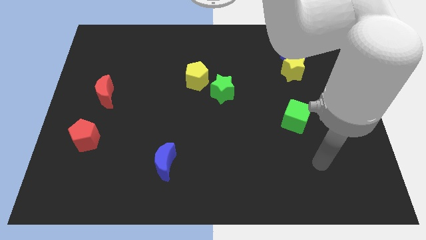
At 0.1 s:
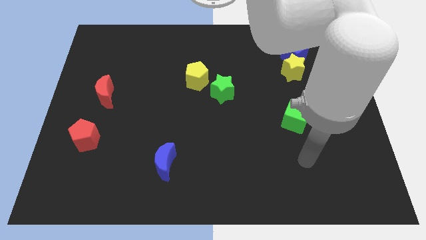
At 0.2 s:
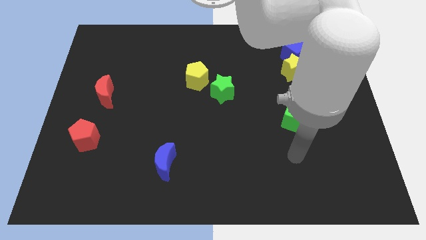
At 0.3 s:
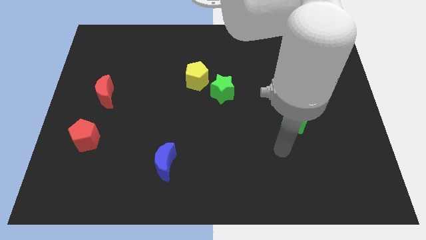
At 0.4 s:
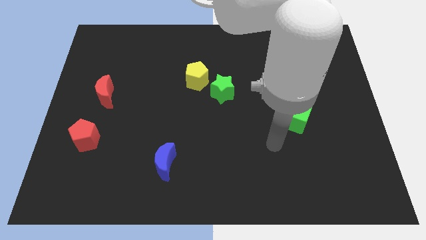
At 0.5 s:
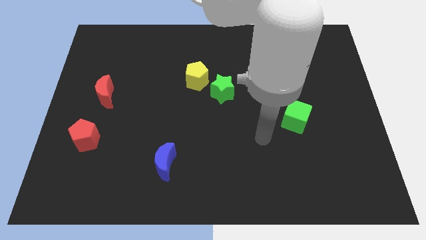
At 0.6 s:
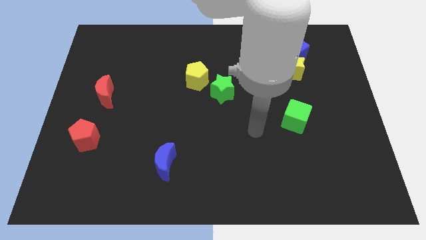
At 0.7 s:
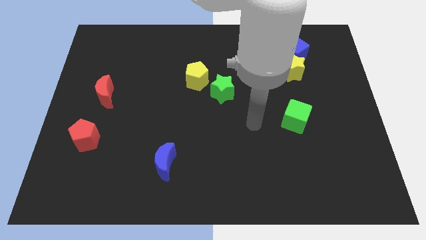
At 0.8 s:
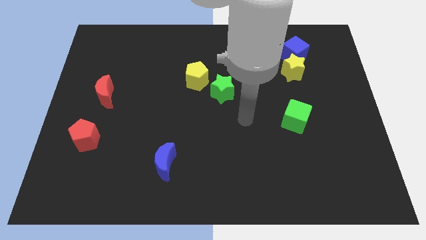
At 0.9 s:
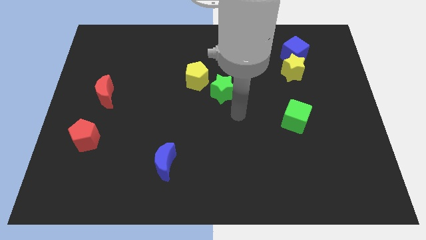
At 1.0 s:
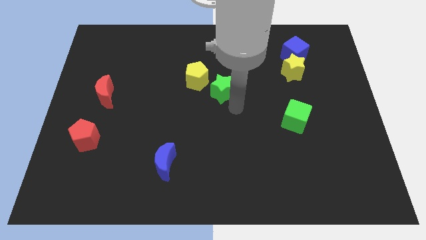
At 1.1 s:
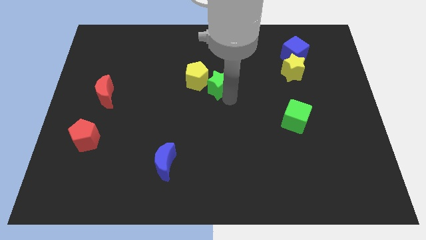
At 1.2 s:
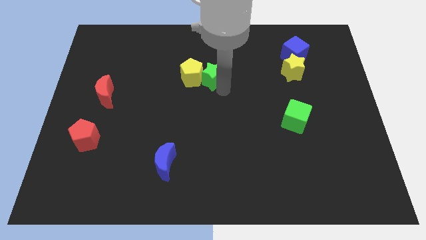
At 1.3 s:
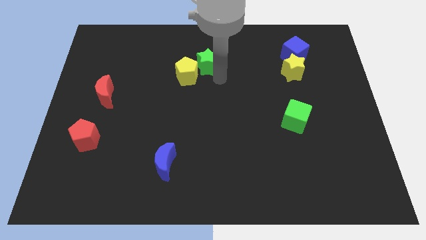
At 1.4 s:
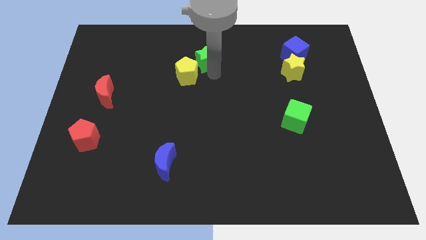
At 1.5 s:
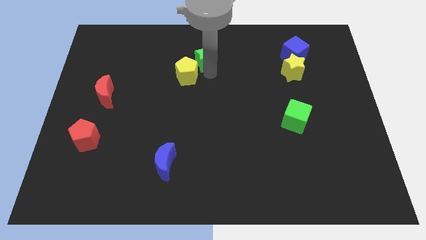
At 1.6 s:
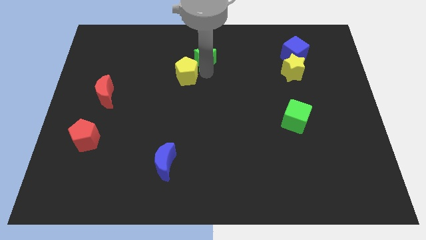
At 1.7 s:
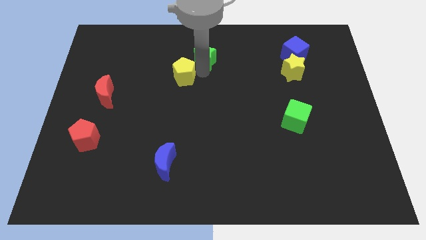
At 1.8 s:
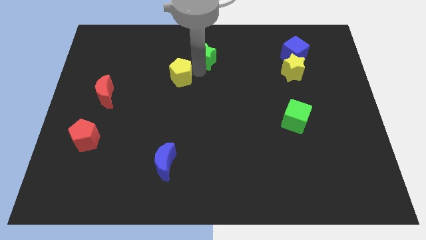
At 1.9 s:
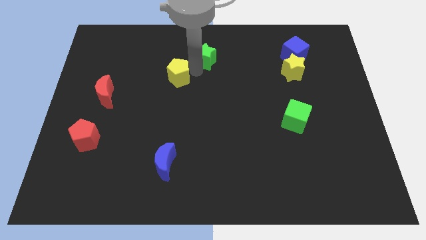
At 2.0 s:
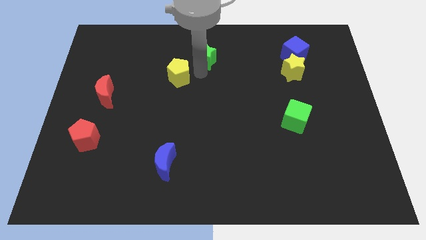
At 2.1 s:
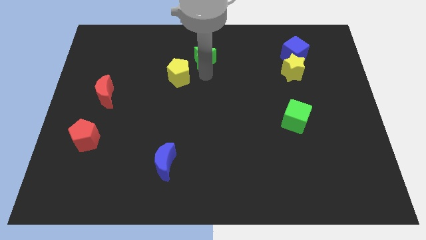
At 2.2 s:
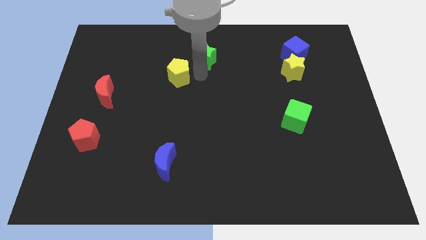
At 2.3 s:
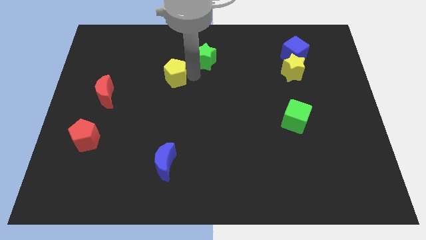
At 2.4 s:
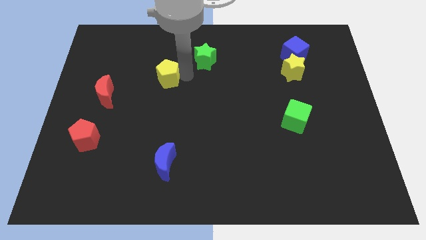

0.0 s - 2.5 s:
push the yellow pentagon to the left slightly

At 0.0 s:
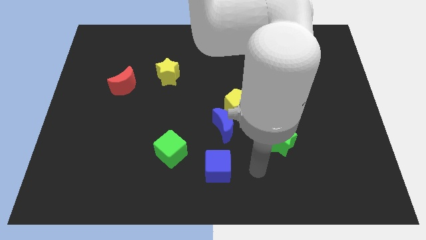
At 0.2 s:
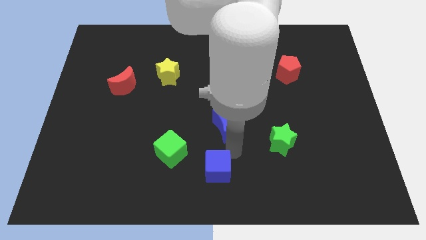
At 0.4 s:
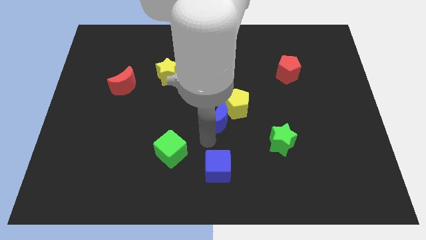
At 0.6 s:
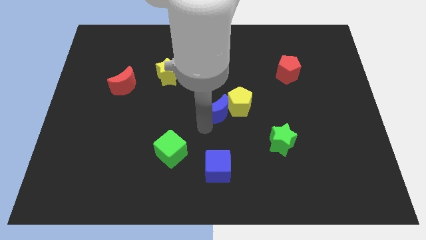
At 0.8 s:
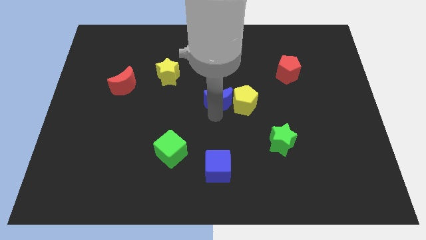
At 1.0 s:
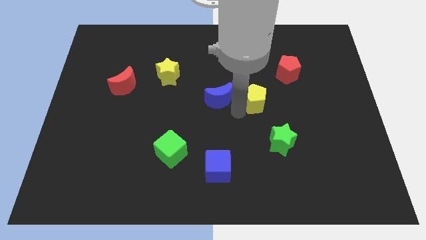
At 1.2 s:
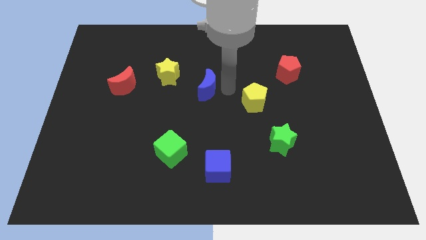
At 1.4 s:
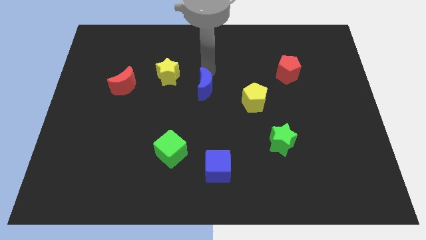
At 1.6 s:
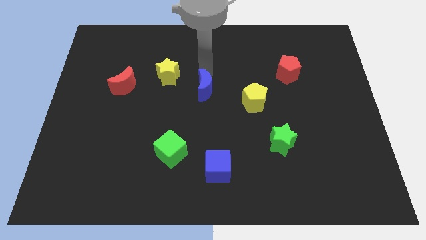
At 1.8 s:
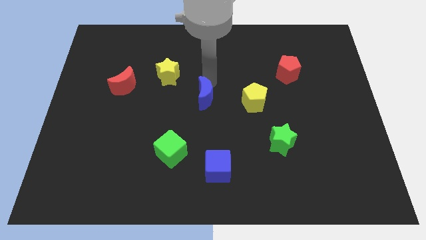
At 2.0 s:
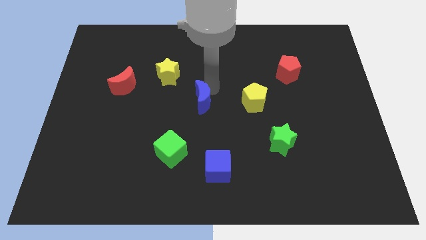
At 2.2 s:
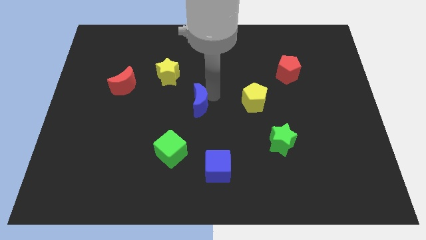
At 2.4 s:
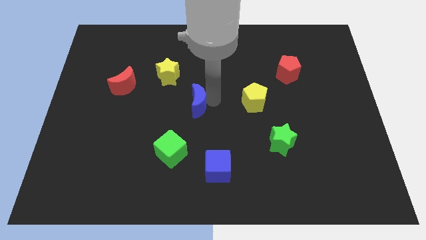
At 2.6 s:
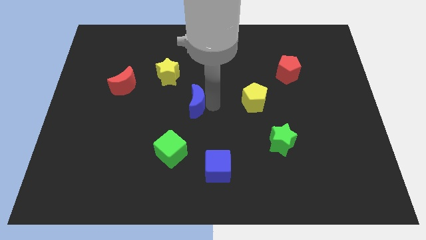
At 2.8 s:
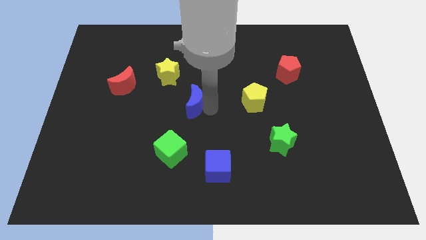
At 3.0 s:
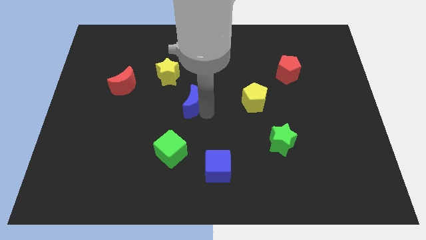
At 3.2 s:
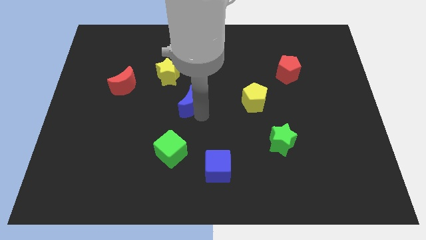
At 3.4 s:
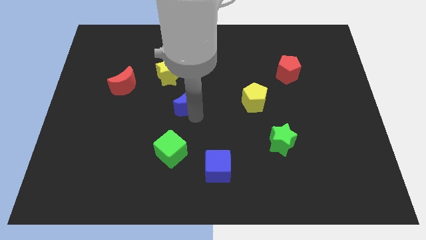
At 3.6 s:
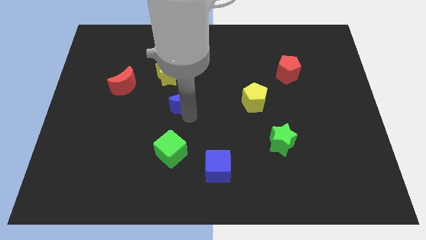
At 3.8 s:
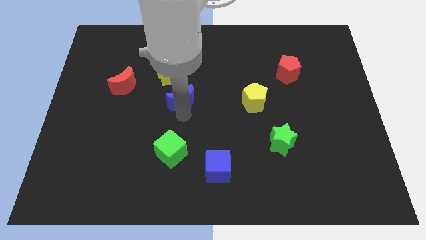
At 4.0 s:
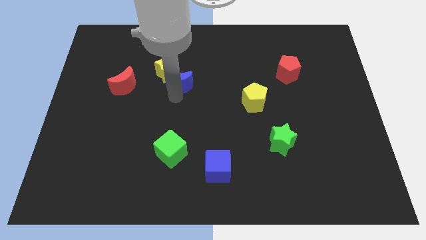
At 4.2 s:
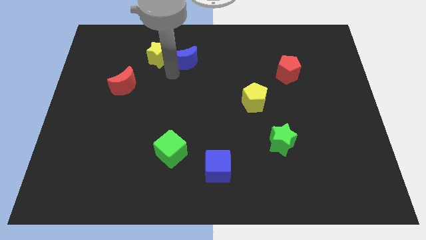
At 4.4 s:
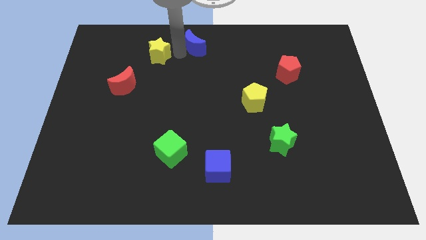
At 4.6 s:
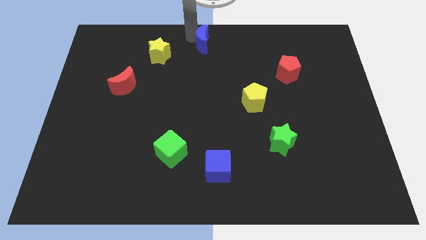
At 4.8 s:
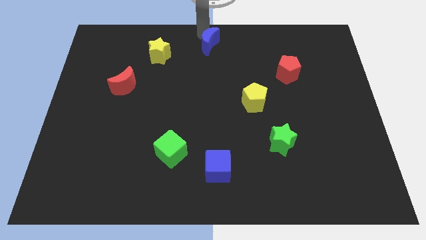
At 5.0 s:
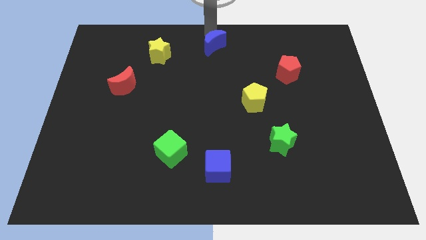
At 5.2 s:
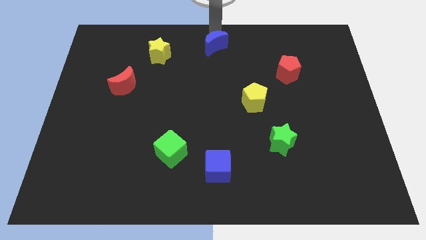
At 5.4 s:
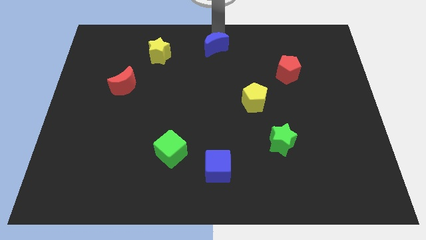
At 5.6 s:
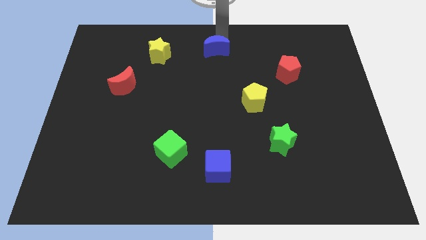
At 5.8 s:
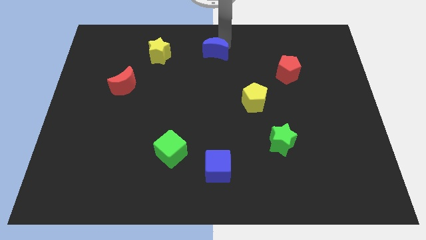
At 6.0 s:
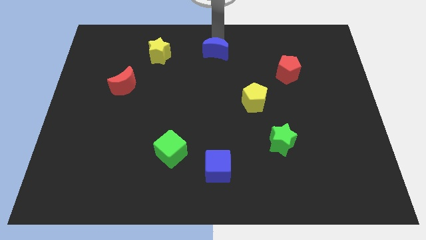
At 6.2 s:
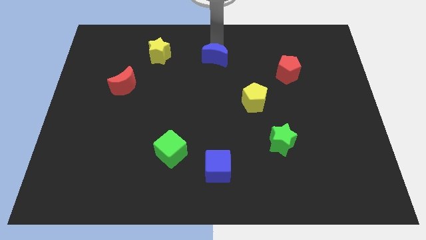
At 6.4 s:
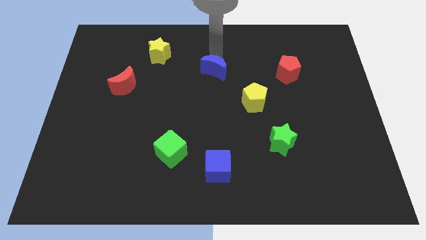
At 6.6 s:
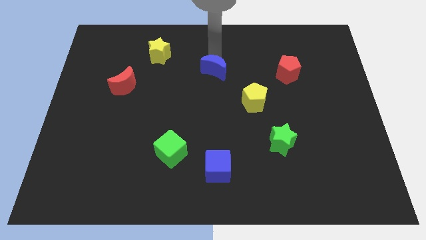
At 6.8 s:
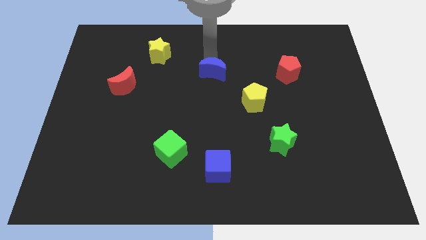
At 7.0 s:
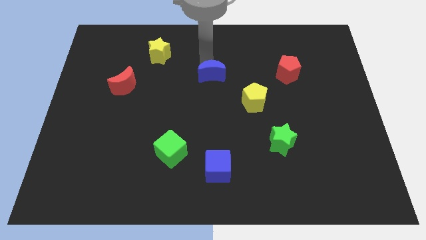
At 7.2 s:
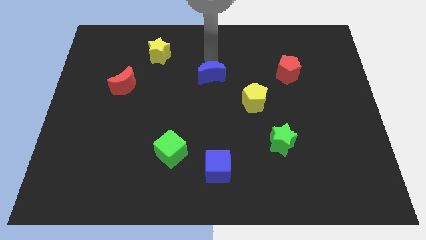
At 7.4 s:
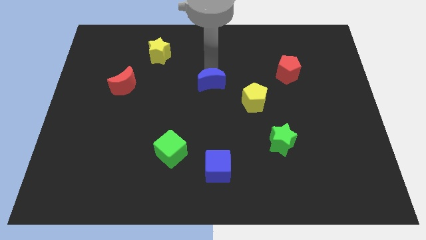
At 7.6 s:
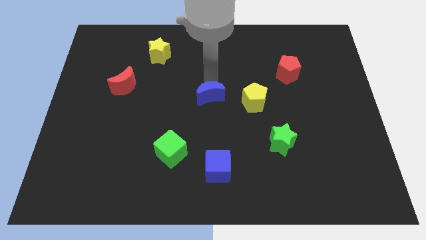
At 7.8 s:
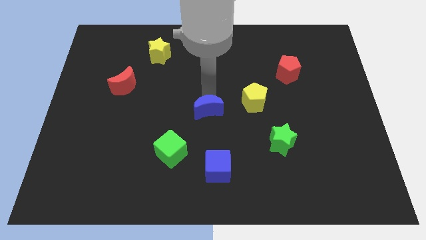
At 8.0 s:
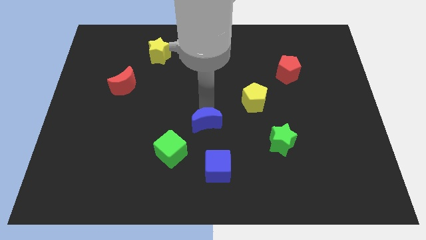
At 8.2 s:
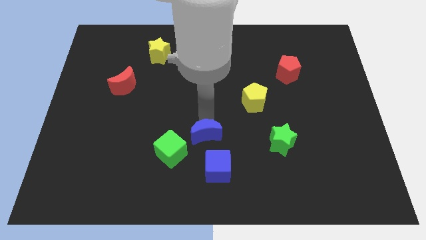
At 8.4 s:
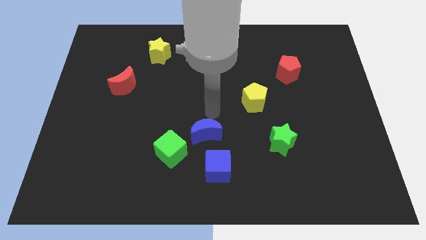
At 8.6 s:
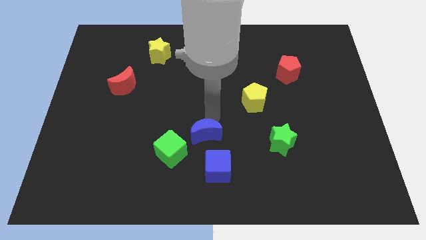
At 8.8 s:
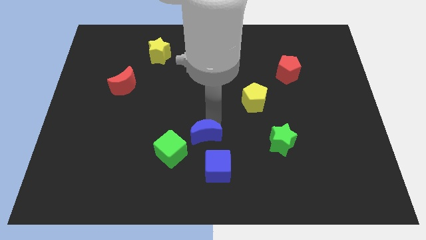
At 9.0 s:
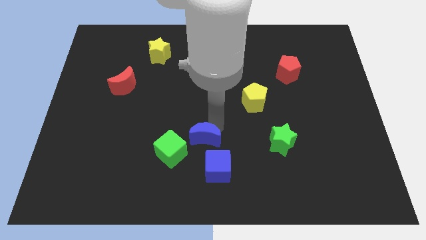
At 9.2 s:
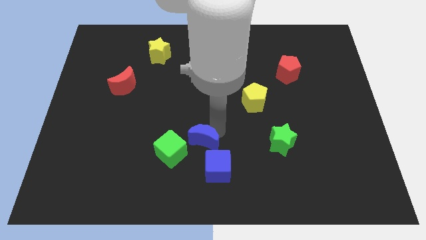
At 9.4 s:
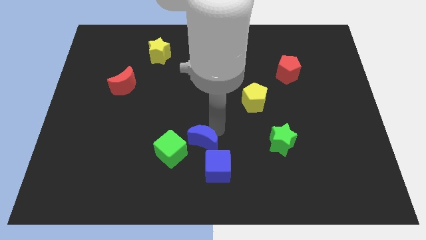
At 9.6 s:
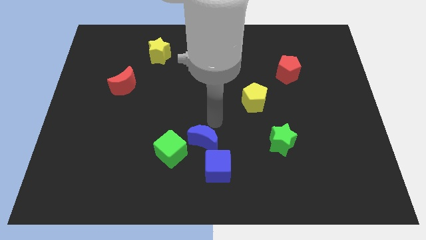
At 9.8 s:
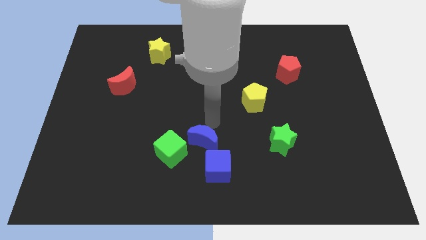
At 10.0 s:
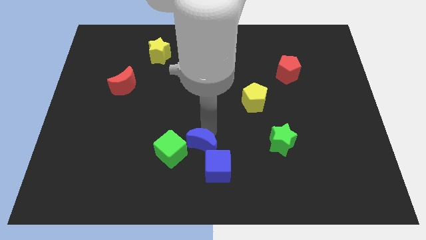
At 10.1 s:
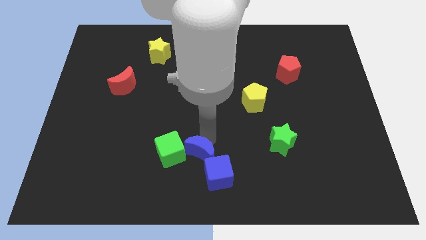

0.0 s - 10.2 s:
slide the blue moon a bit downwards and left diagonally

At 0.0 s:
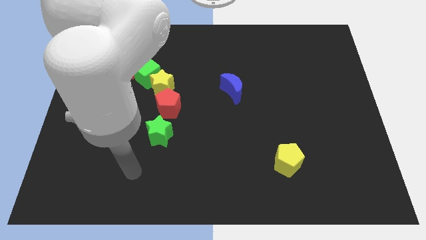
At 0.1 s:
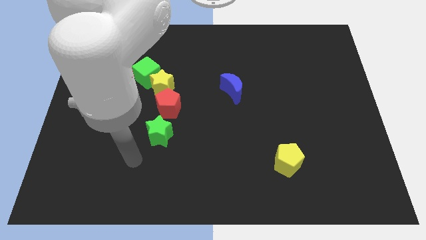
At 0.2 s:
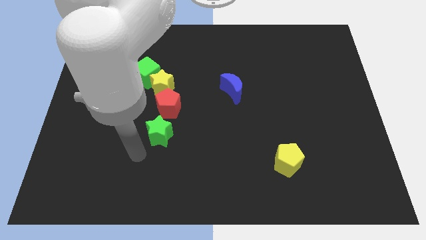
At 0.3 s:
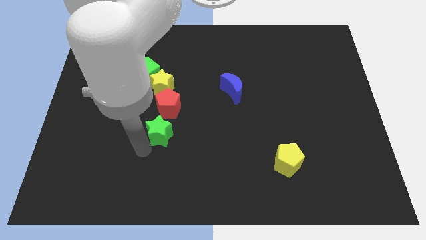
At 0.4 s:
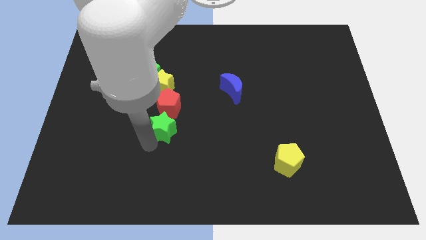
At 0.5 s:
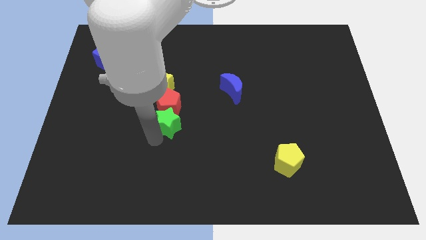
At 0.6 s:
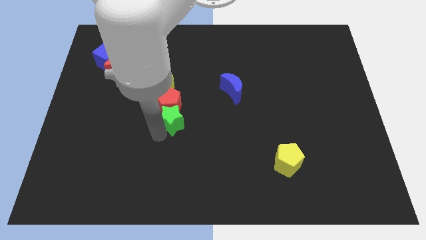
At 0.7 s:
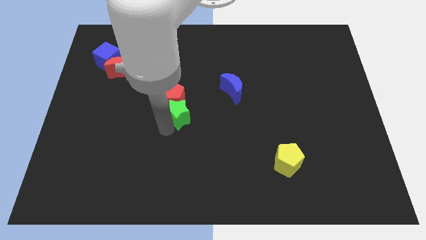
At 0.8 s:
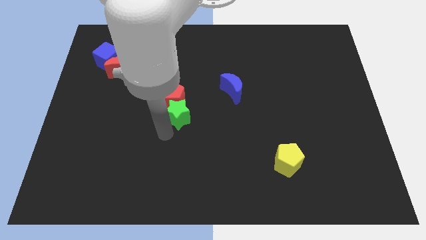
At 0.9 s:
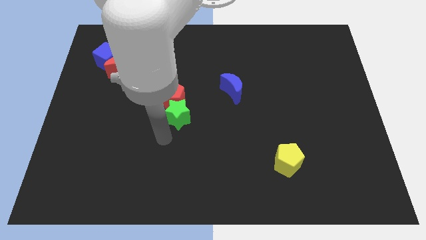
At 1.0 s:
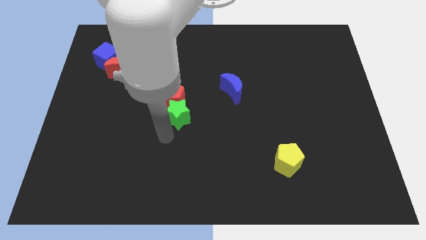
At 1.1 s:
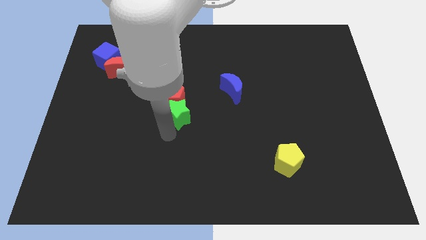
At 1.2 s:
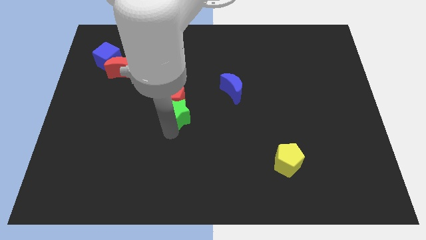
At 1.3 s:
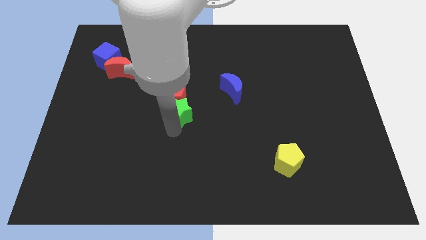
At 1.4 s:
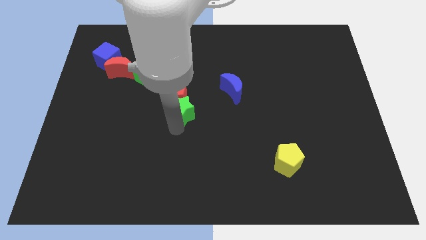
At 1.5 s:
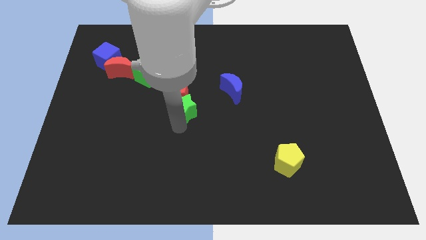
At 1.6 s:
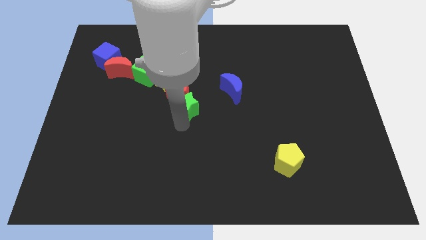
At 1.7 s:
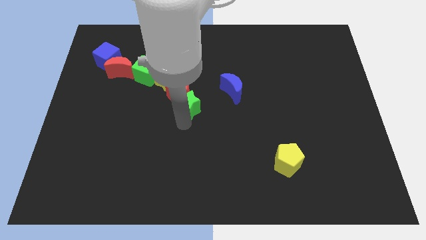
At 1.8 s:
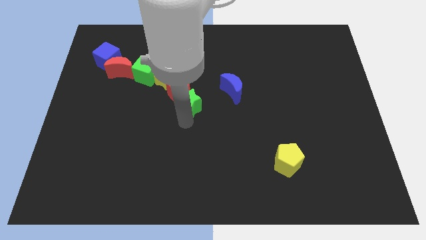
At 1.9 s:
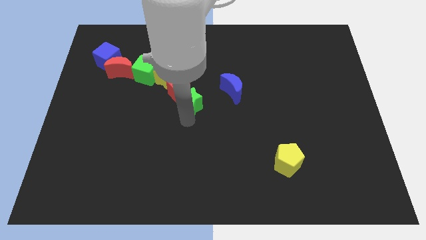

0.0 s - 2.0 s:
push the green star upwards a bit
